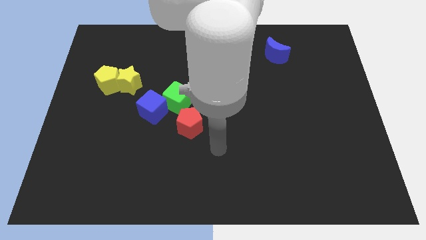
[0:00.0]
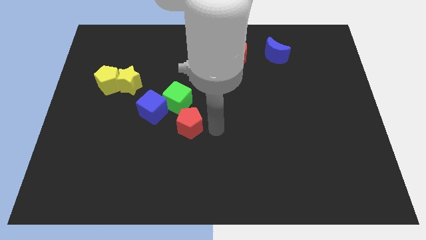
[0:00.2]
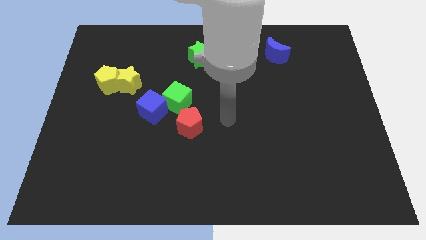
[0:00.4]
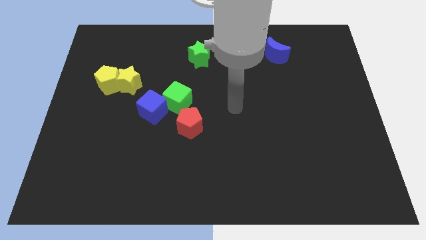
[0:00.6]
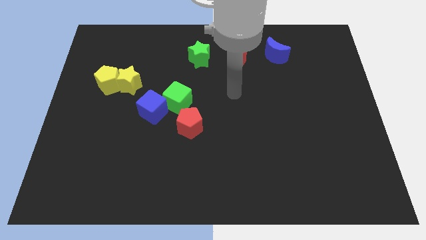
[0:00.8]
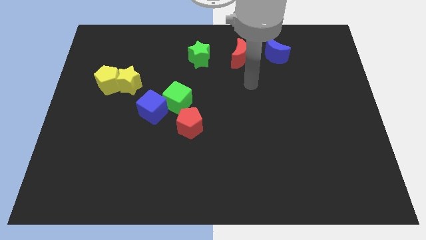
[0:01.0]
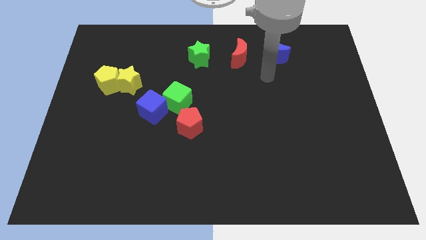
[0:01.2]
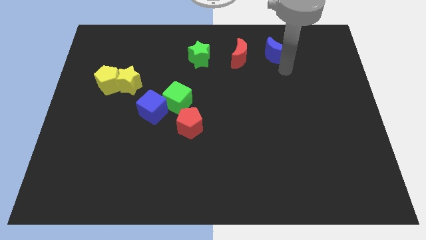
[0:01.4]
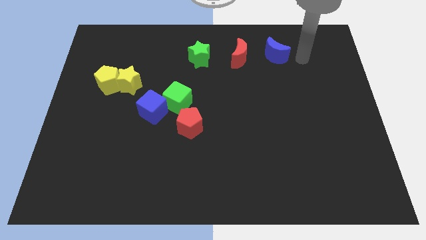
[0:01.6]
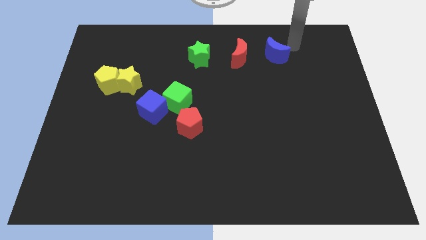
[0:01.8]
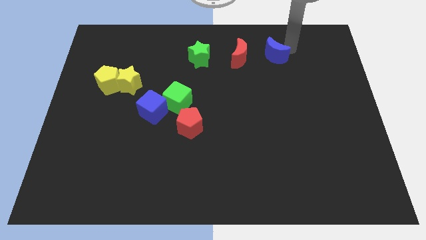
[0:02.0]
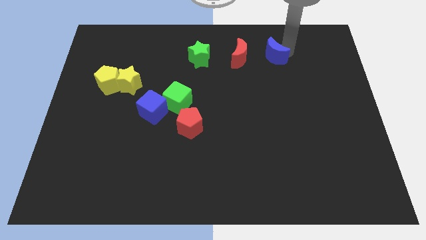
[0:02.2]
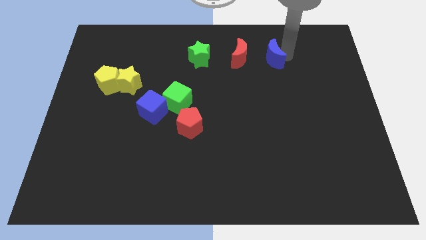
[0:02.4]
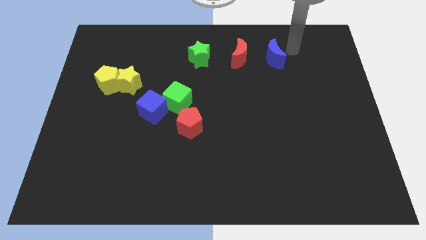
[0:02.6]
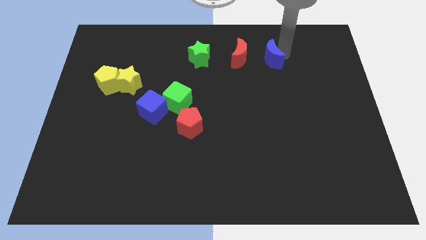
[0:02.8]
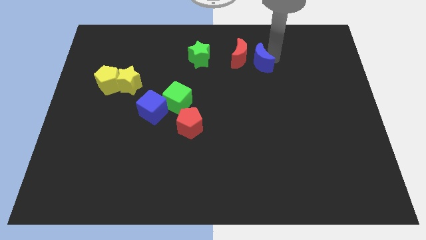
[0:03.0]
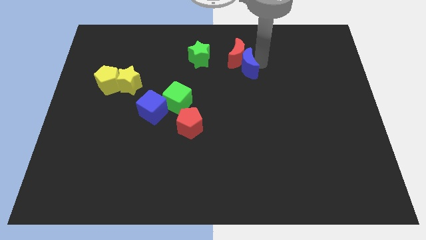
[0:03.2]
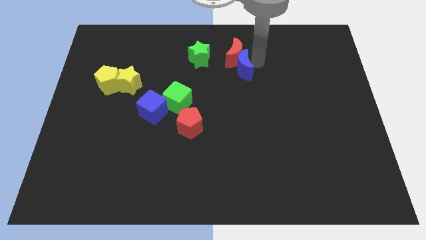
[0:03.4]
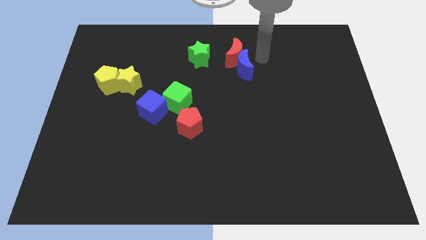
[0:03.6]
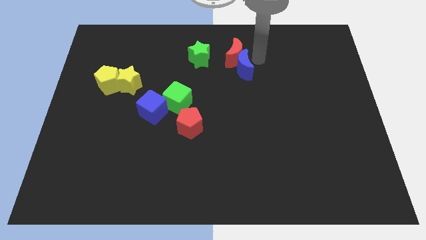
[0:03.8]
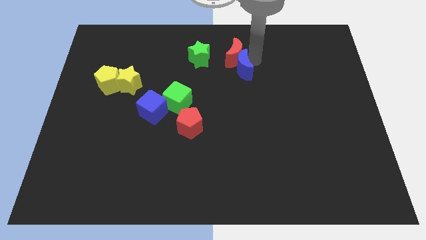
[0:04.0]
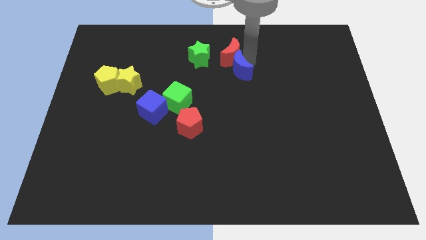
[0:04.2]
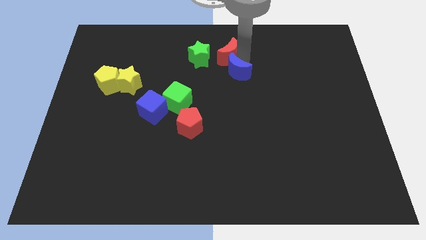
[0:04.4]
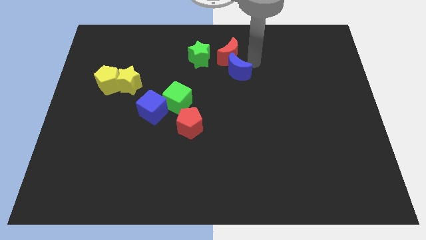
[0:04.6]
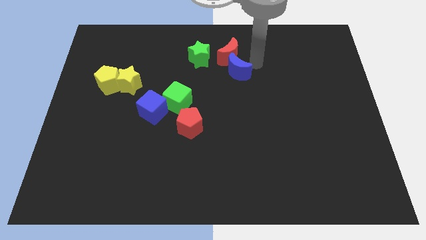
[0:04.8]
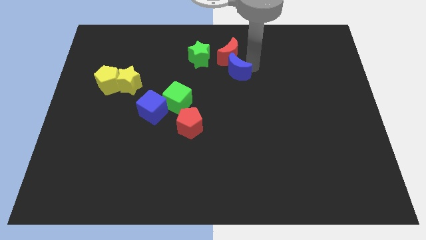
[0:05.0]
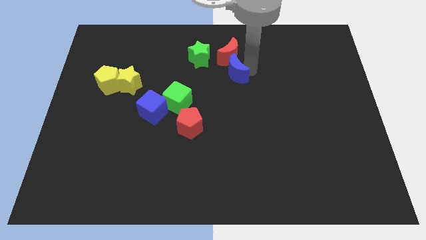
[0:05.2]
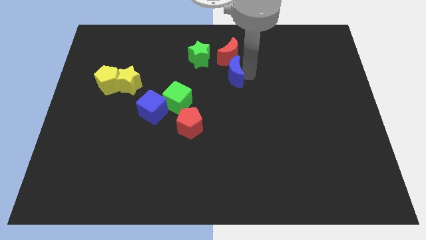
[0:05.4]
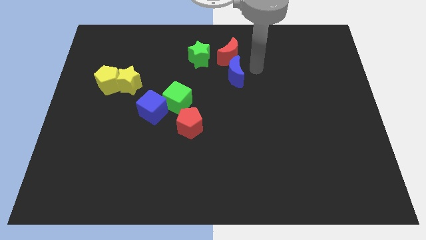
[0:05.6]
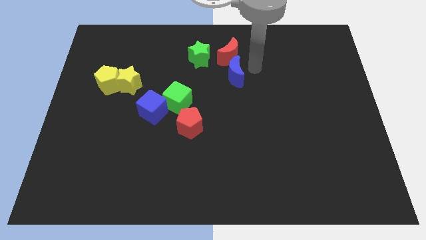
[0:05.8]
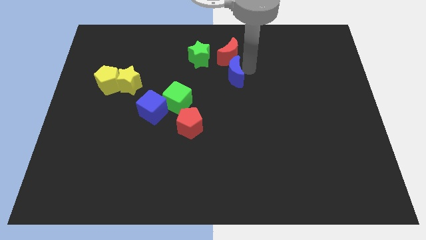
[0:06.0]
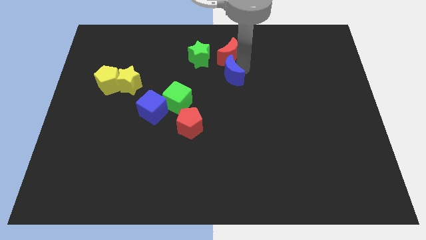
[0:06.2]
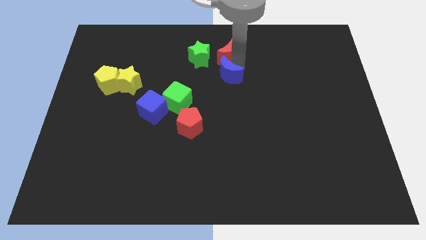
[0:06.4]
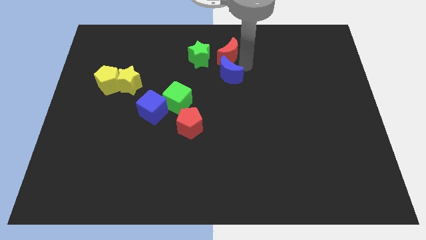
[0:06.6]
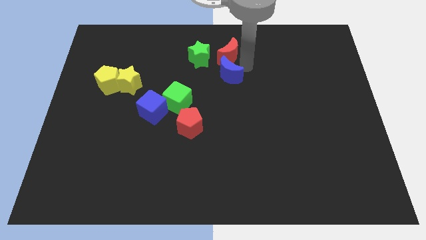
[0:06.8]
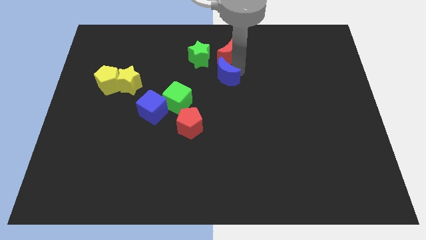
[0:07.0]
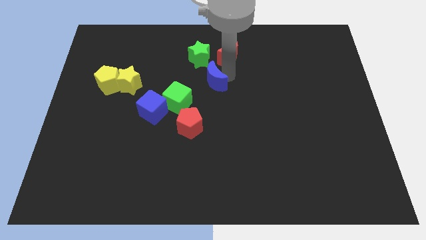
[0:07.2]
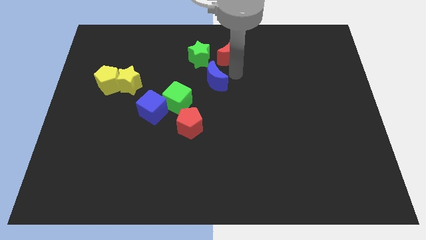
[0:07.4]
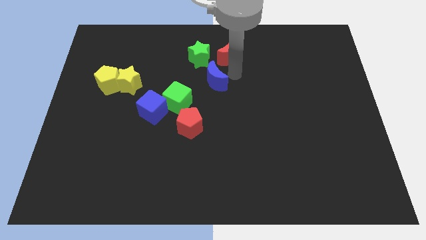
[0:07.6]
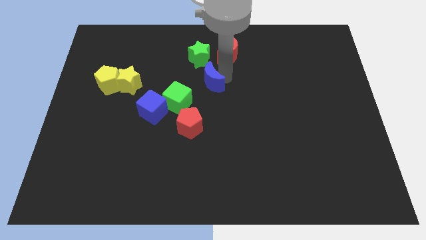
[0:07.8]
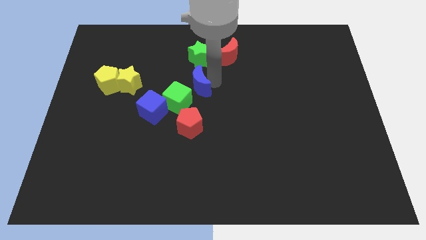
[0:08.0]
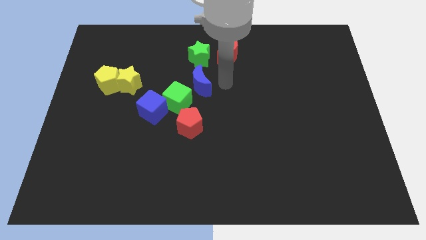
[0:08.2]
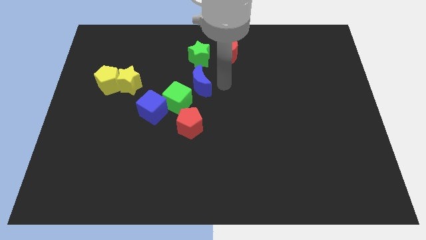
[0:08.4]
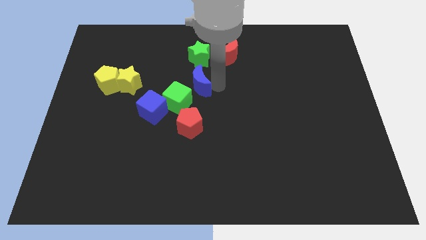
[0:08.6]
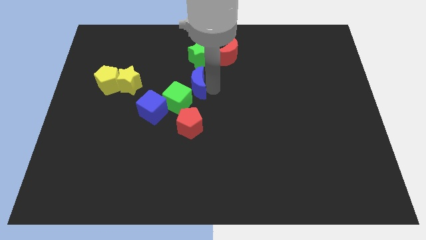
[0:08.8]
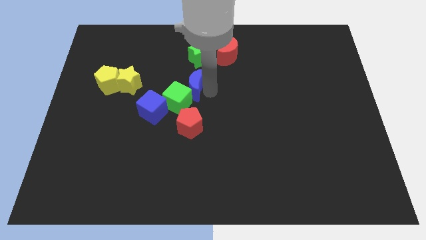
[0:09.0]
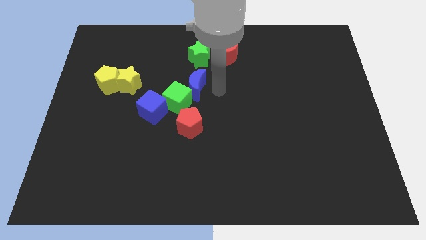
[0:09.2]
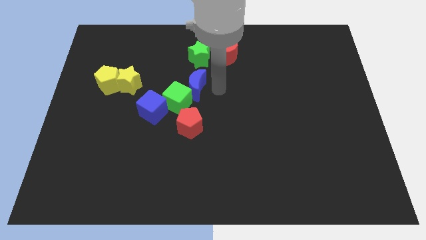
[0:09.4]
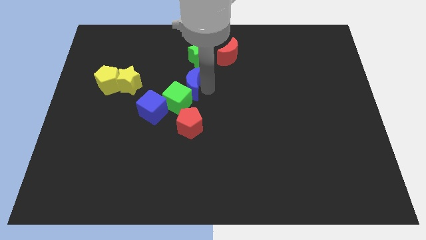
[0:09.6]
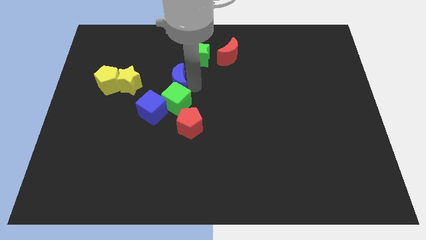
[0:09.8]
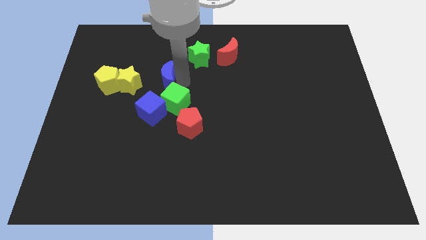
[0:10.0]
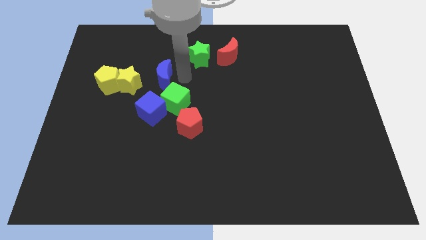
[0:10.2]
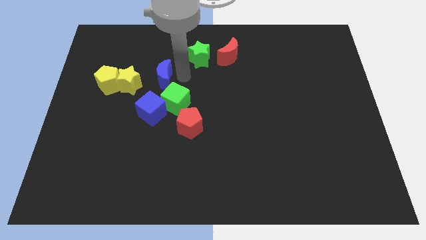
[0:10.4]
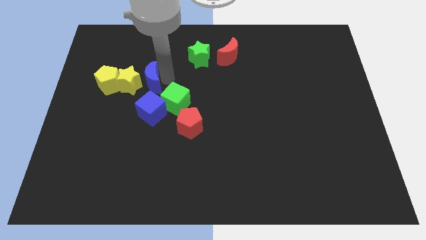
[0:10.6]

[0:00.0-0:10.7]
slide the blue moon towards the yellow star

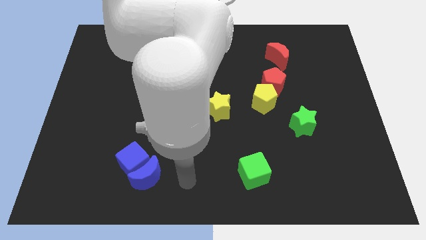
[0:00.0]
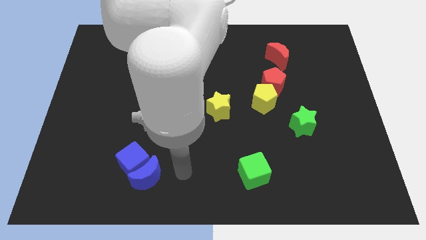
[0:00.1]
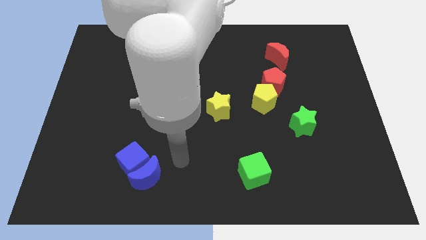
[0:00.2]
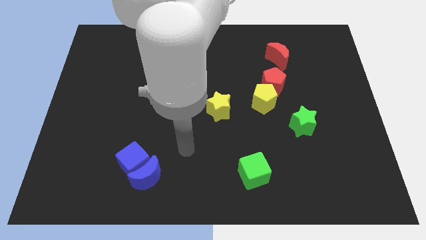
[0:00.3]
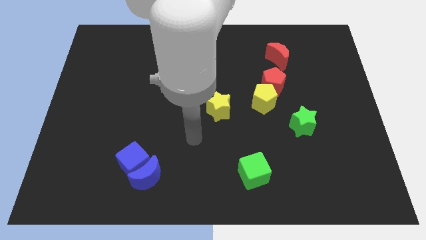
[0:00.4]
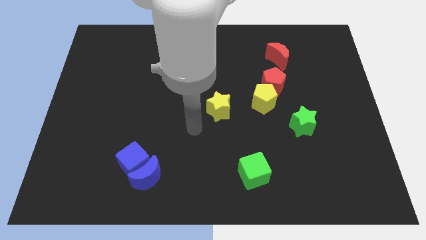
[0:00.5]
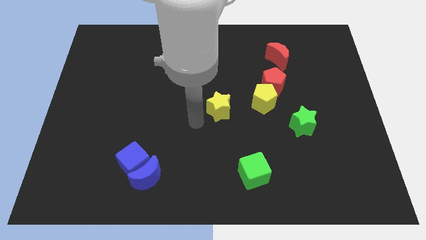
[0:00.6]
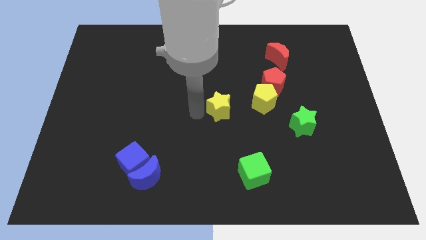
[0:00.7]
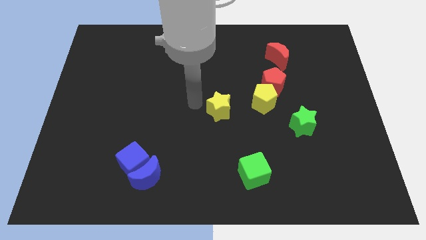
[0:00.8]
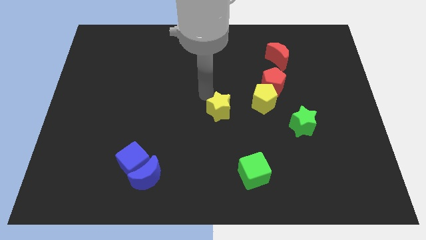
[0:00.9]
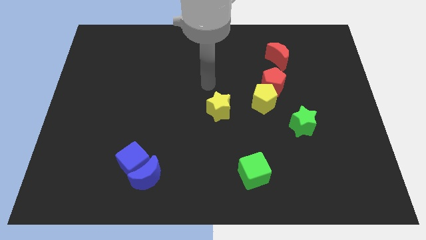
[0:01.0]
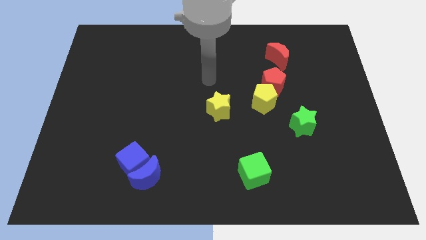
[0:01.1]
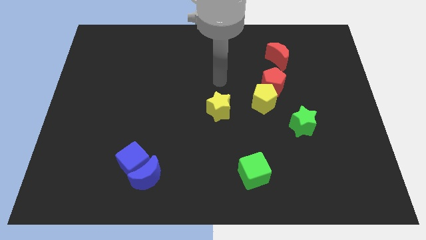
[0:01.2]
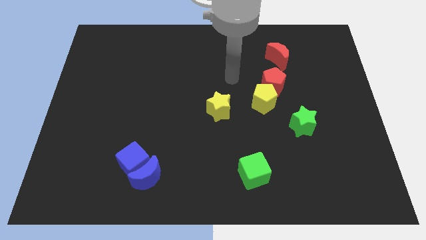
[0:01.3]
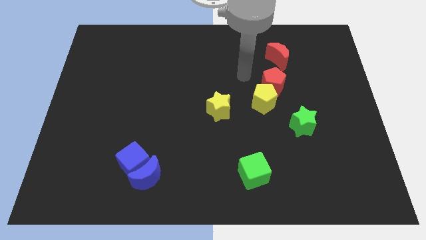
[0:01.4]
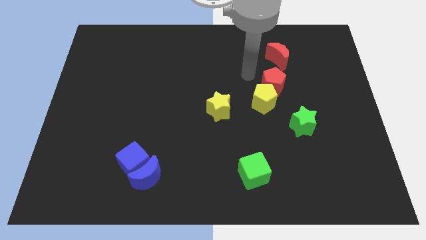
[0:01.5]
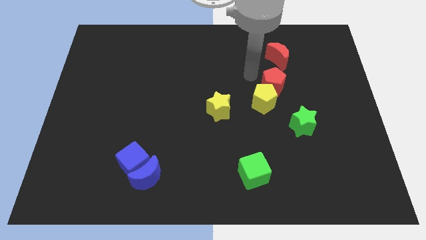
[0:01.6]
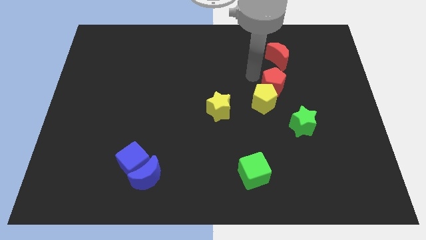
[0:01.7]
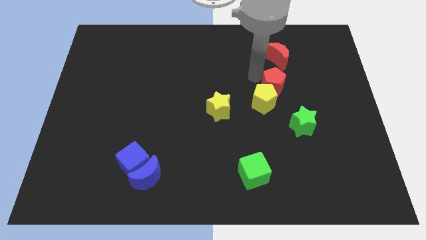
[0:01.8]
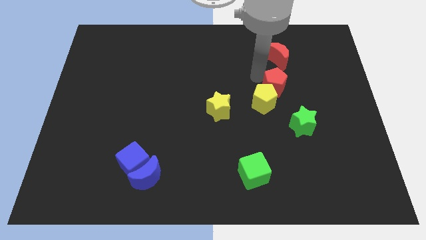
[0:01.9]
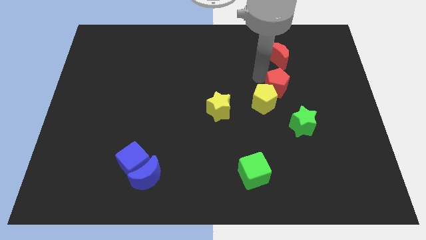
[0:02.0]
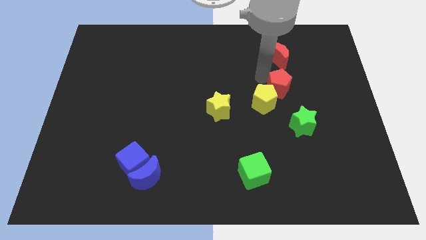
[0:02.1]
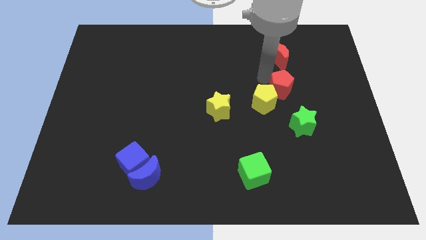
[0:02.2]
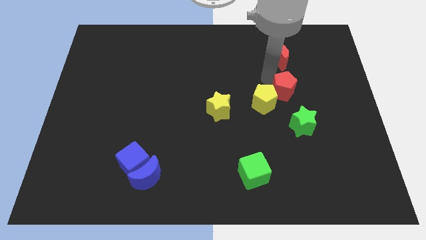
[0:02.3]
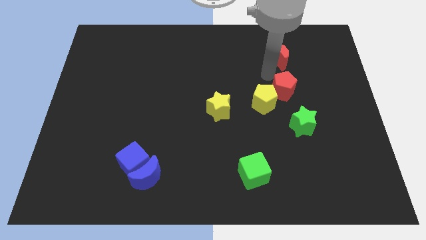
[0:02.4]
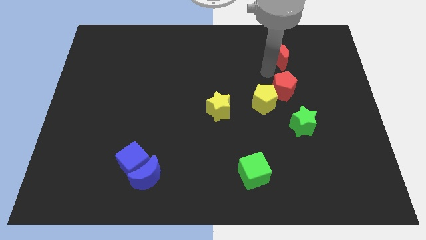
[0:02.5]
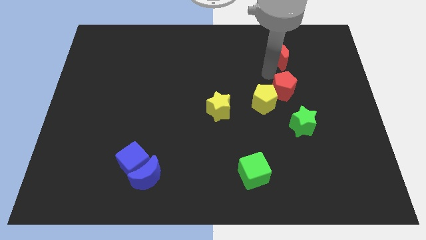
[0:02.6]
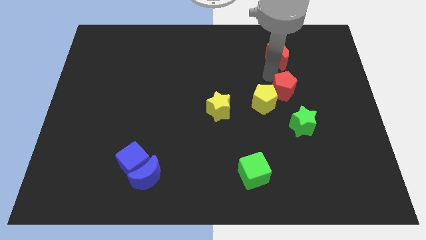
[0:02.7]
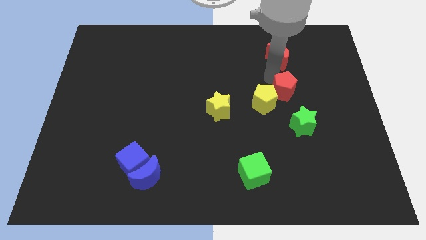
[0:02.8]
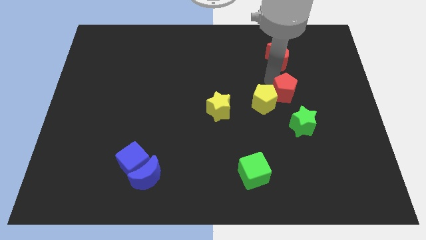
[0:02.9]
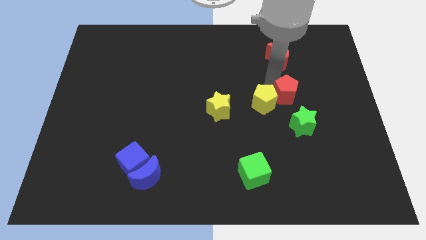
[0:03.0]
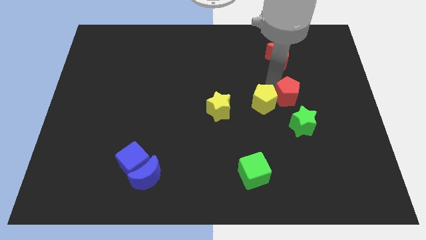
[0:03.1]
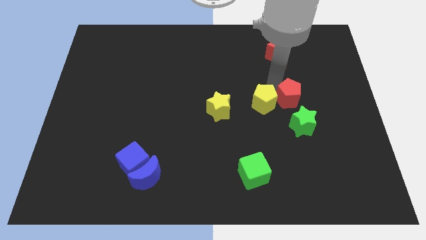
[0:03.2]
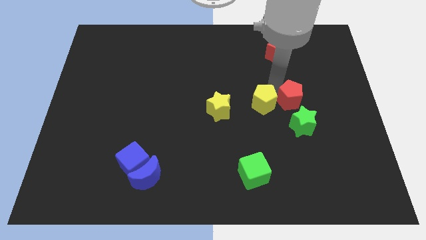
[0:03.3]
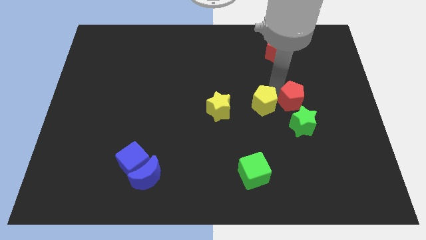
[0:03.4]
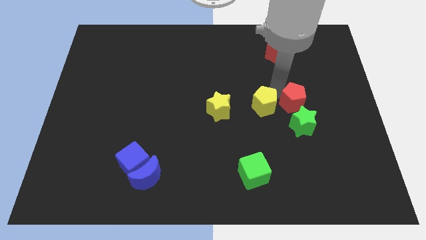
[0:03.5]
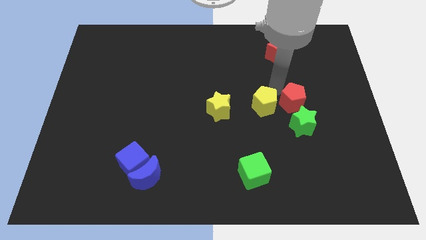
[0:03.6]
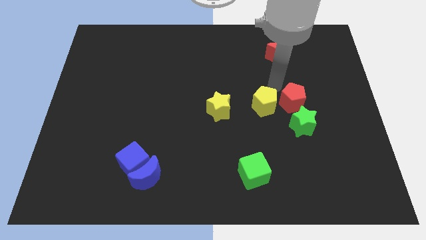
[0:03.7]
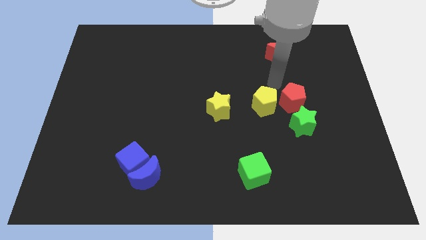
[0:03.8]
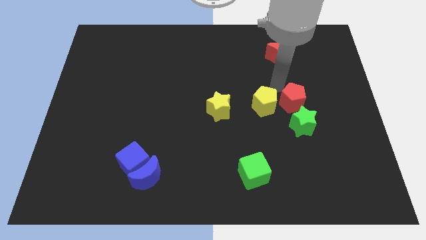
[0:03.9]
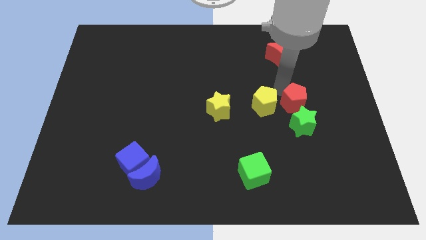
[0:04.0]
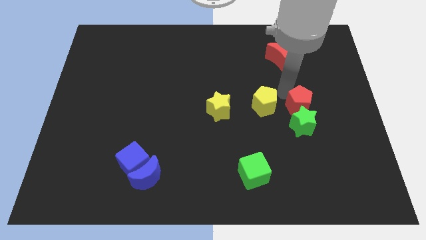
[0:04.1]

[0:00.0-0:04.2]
move the red pentagon towards the green star
